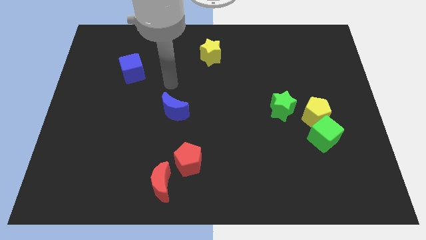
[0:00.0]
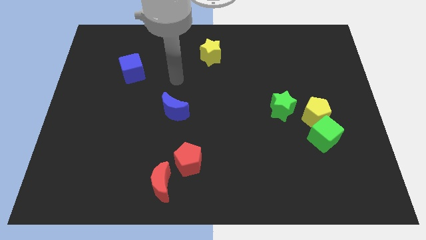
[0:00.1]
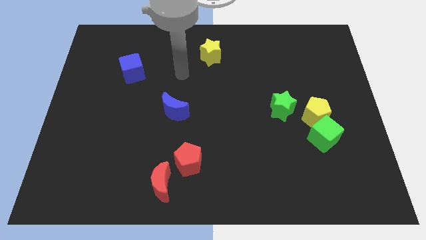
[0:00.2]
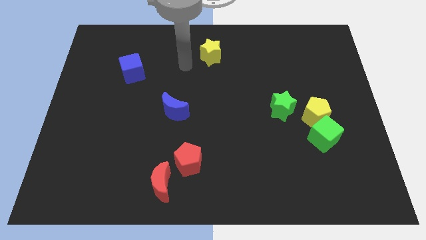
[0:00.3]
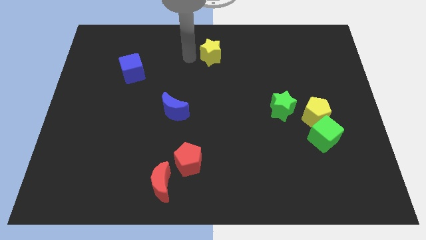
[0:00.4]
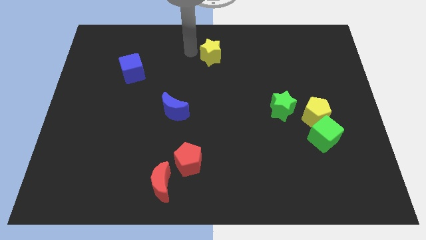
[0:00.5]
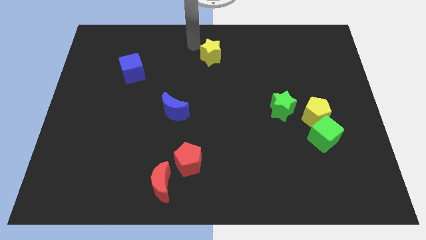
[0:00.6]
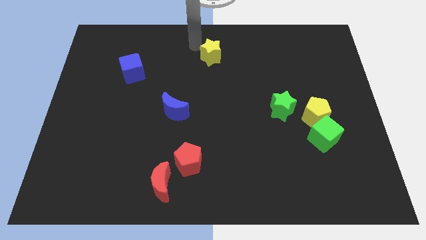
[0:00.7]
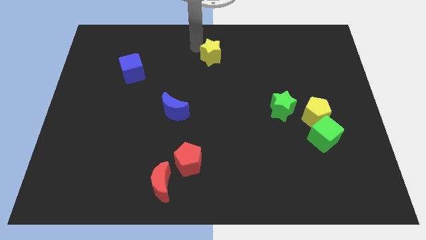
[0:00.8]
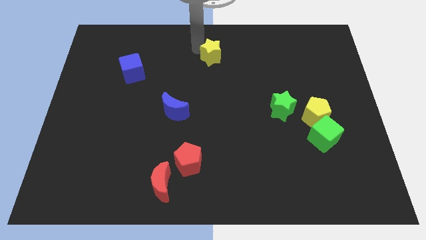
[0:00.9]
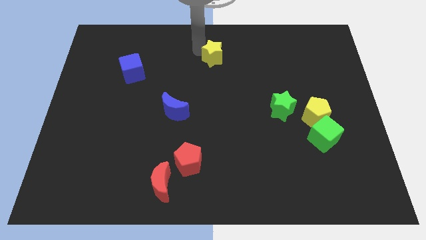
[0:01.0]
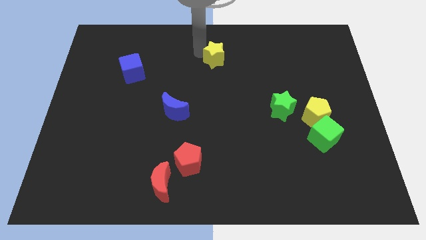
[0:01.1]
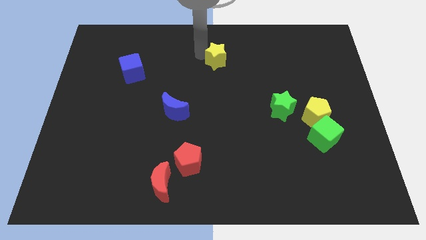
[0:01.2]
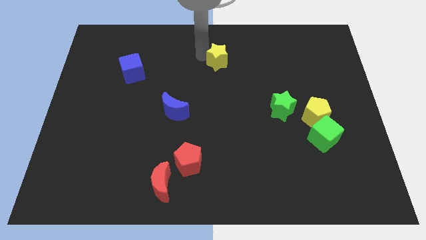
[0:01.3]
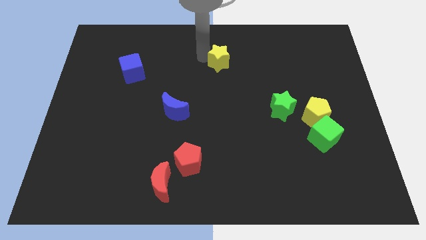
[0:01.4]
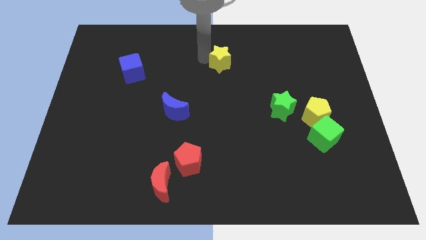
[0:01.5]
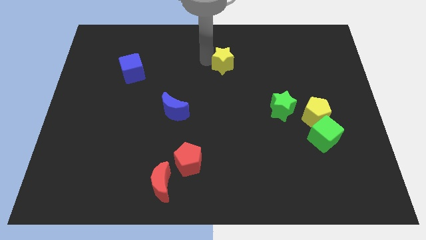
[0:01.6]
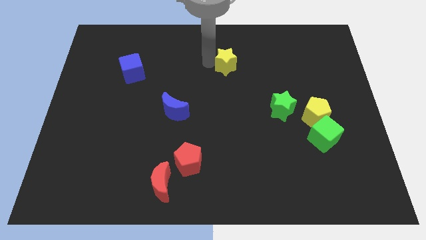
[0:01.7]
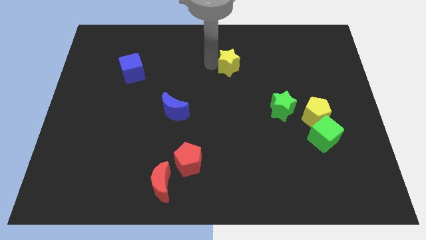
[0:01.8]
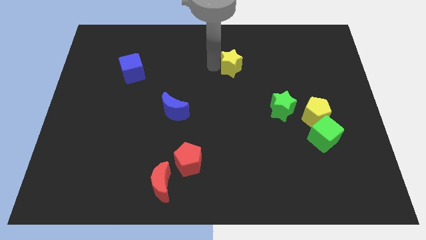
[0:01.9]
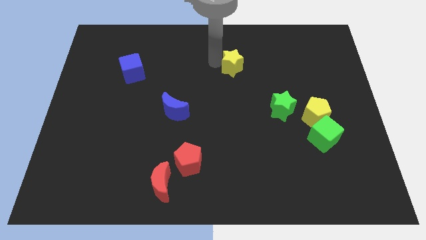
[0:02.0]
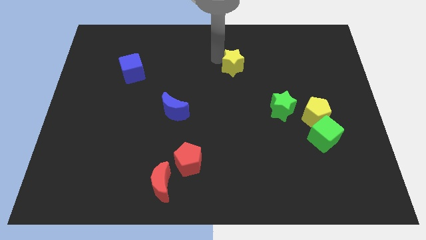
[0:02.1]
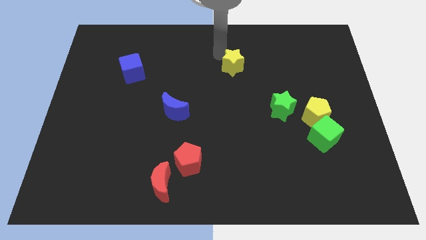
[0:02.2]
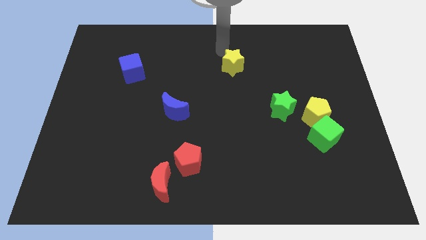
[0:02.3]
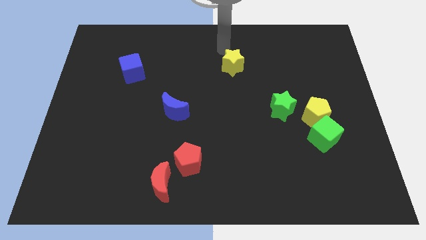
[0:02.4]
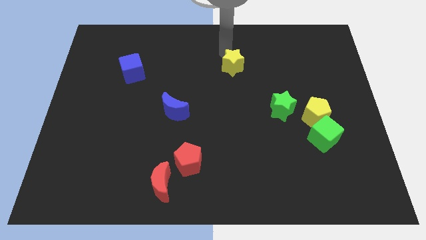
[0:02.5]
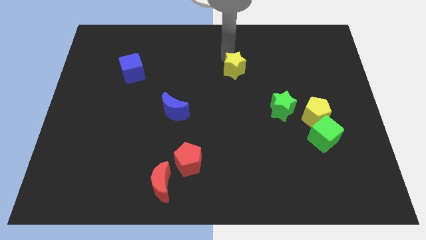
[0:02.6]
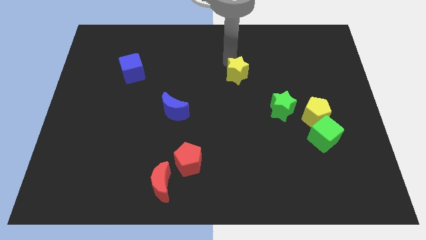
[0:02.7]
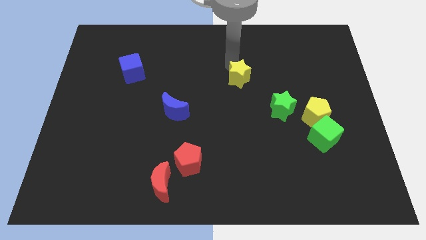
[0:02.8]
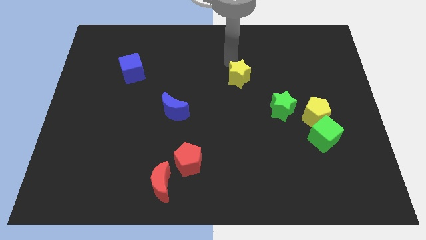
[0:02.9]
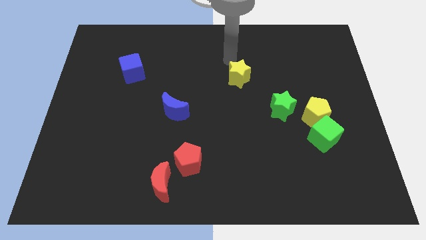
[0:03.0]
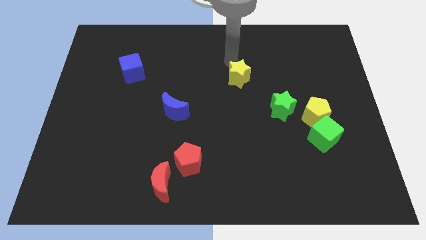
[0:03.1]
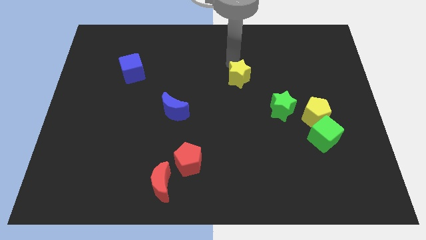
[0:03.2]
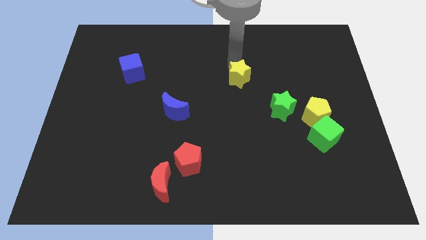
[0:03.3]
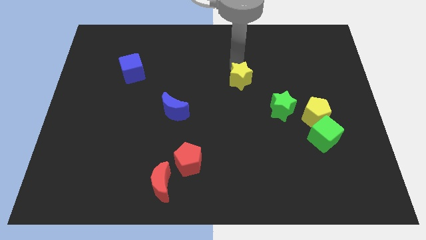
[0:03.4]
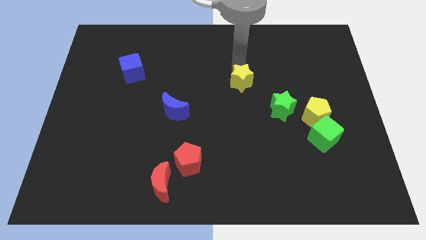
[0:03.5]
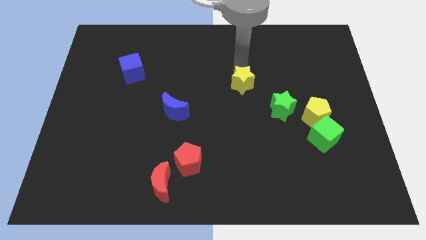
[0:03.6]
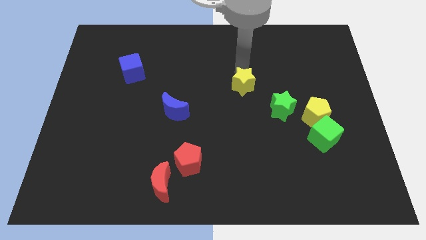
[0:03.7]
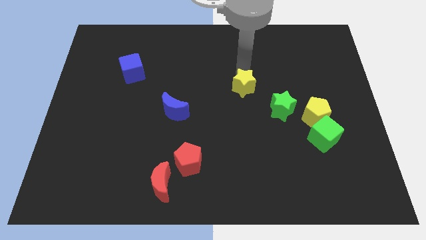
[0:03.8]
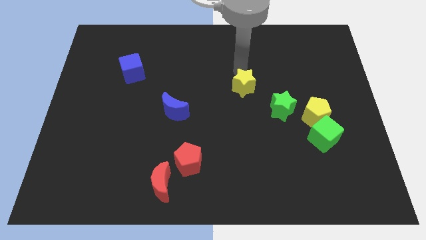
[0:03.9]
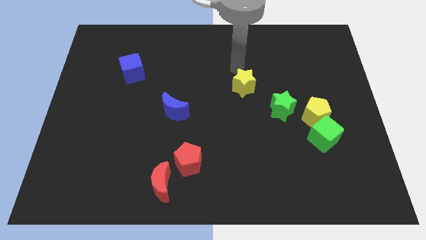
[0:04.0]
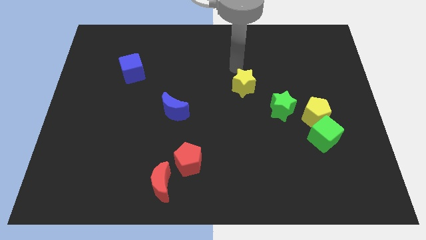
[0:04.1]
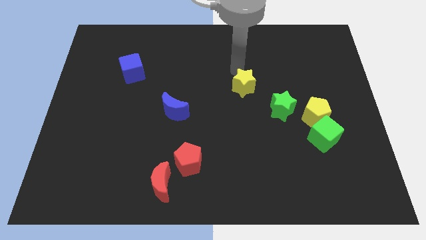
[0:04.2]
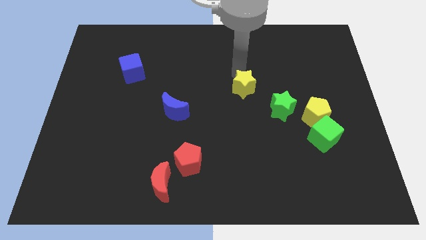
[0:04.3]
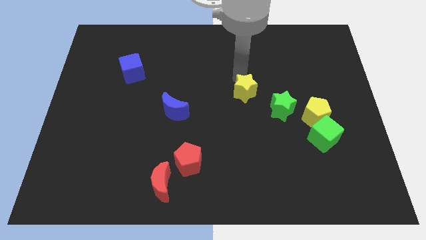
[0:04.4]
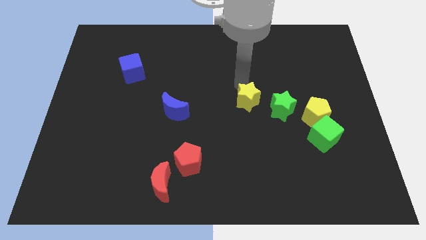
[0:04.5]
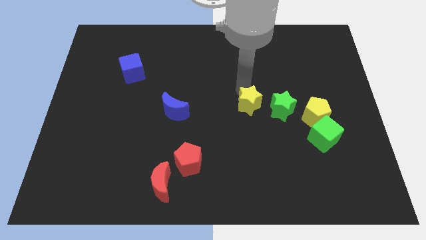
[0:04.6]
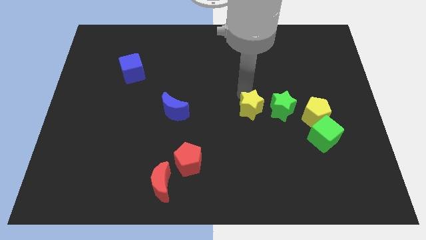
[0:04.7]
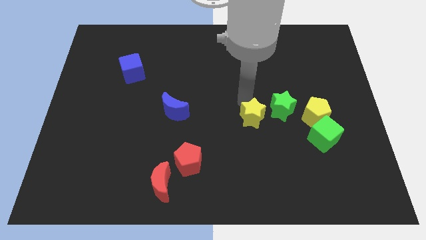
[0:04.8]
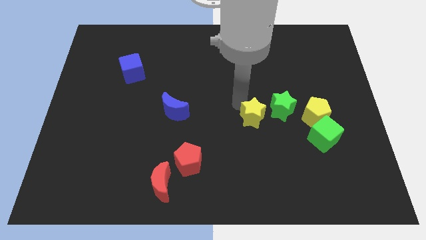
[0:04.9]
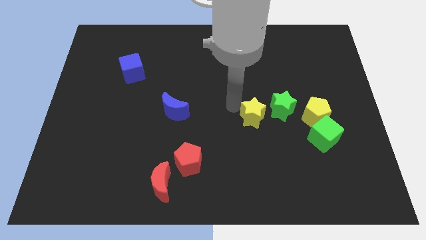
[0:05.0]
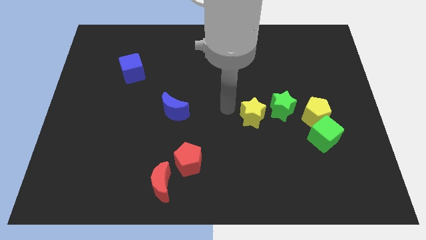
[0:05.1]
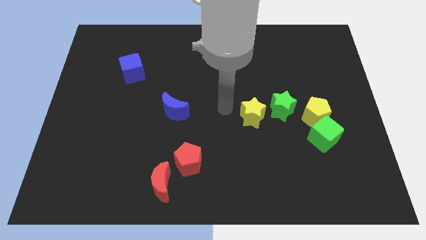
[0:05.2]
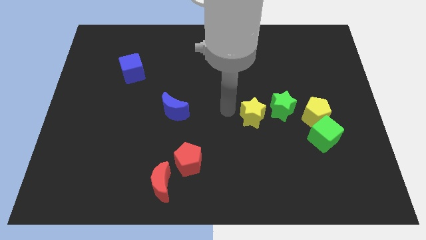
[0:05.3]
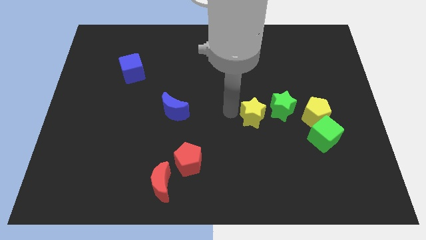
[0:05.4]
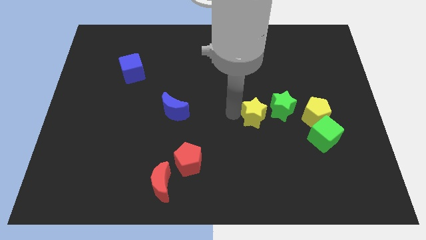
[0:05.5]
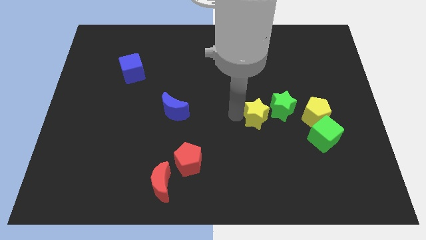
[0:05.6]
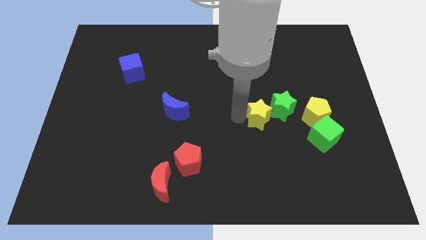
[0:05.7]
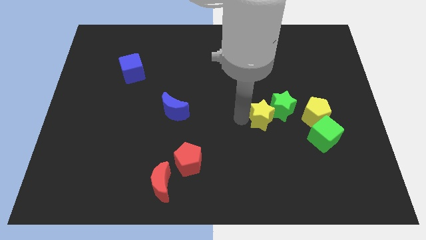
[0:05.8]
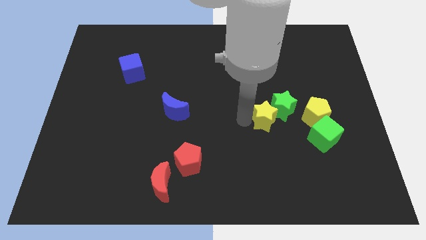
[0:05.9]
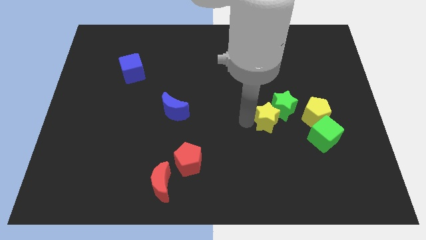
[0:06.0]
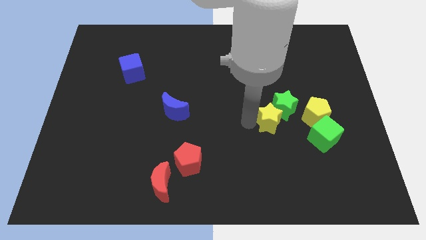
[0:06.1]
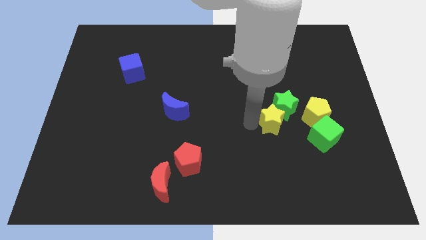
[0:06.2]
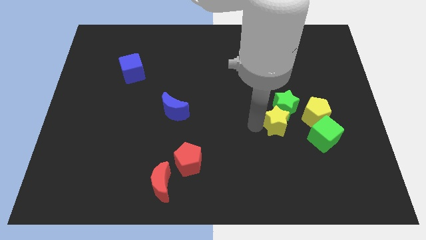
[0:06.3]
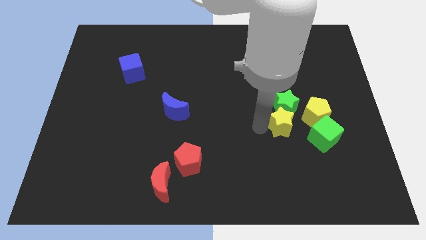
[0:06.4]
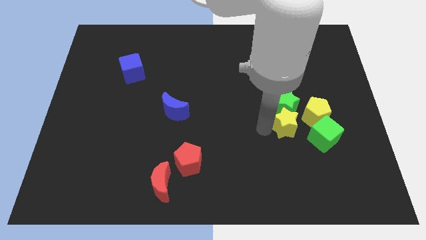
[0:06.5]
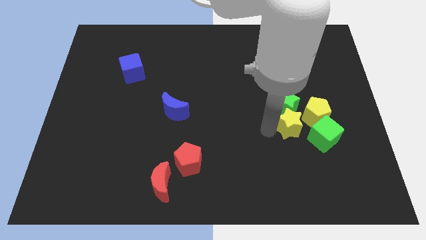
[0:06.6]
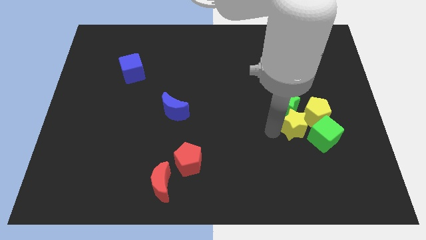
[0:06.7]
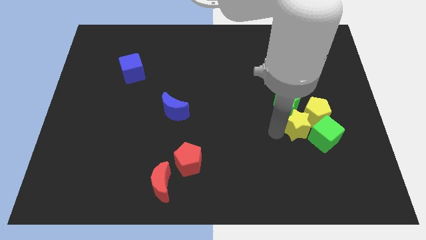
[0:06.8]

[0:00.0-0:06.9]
put the yellow star to the green cube
